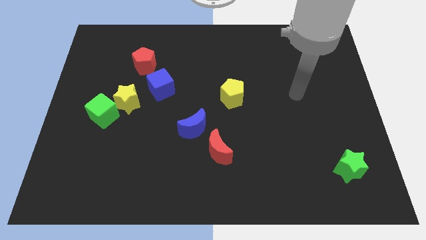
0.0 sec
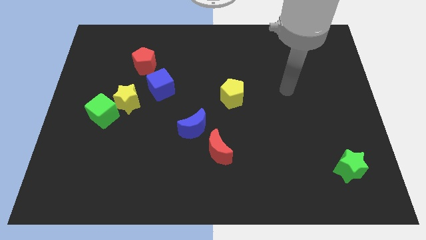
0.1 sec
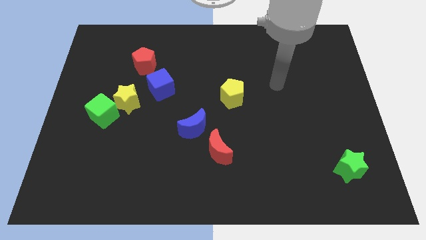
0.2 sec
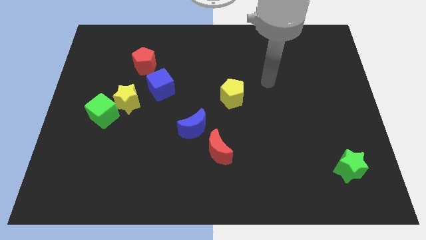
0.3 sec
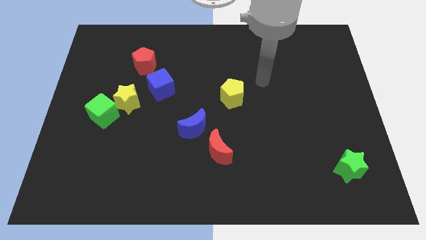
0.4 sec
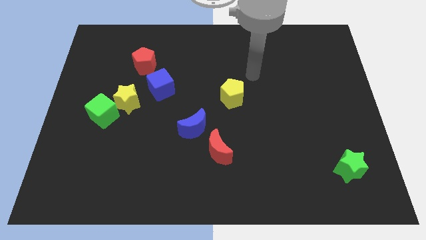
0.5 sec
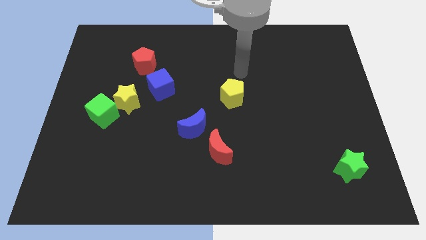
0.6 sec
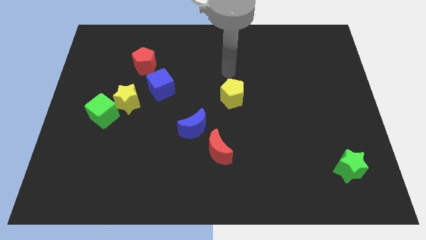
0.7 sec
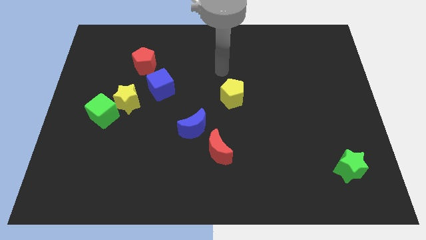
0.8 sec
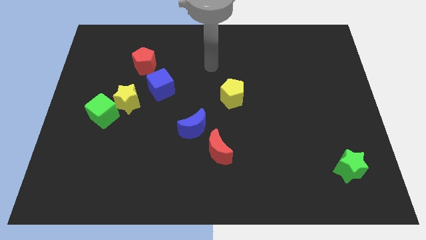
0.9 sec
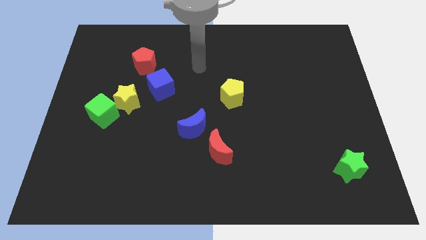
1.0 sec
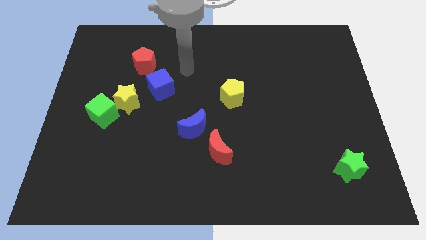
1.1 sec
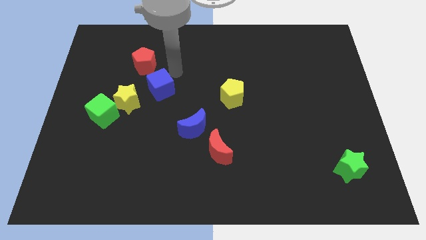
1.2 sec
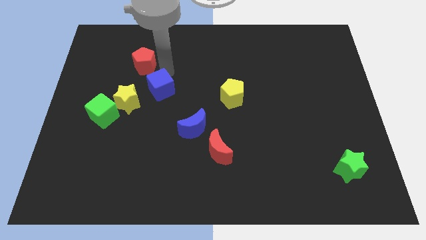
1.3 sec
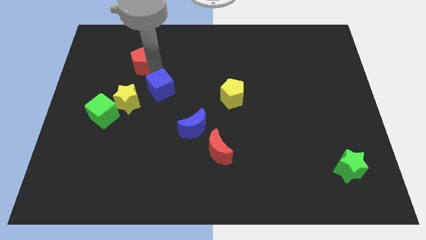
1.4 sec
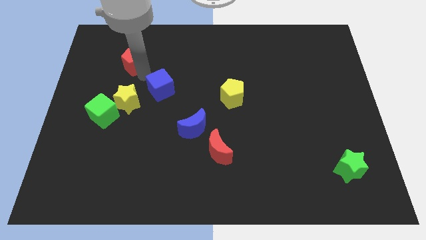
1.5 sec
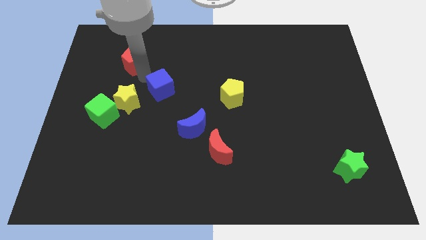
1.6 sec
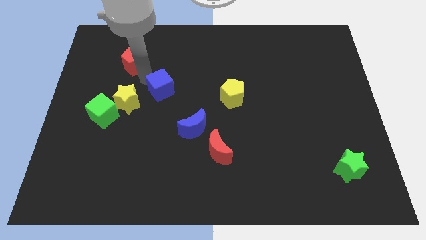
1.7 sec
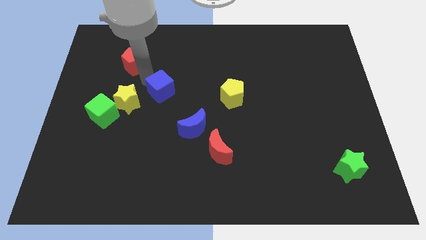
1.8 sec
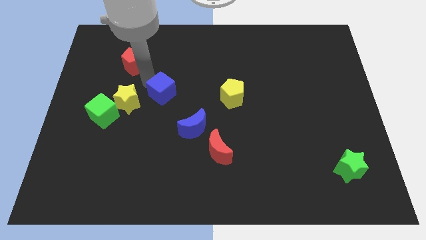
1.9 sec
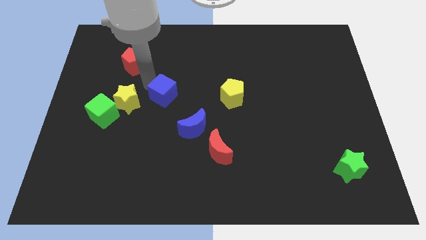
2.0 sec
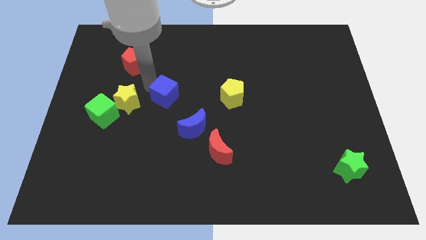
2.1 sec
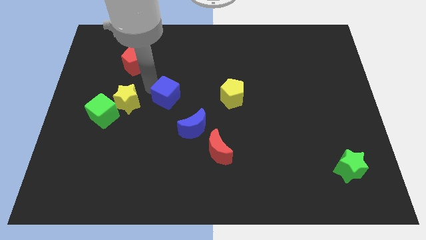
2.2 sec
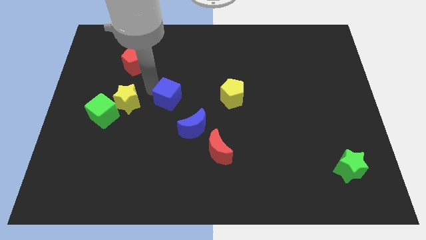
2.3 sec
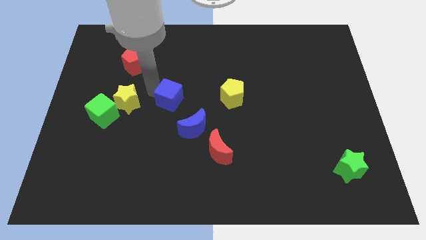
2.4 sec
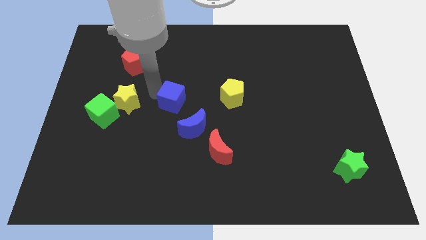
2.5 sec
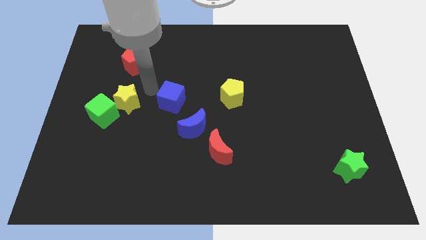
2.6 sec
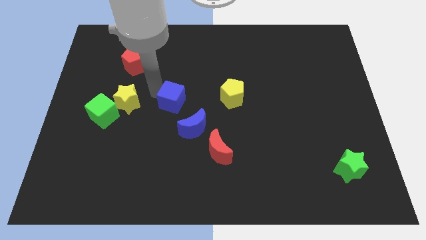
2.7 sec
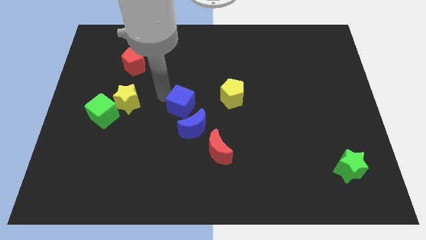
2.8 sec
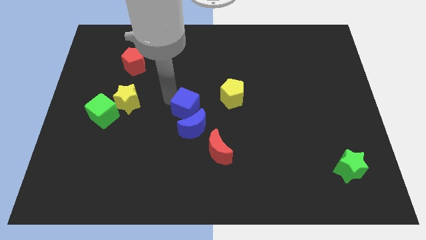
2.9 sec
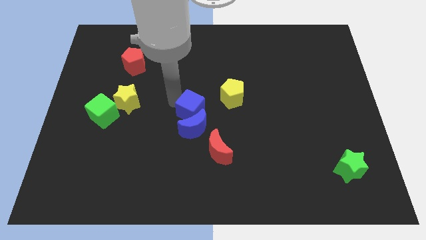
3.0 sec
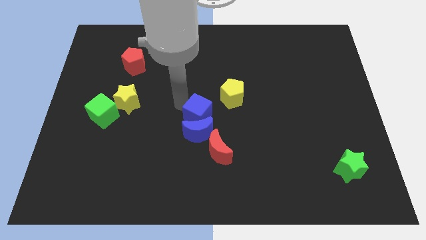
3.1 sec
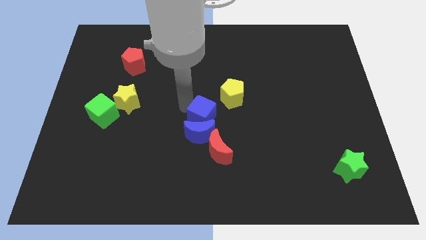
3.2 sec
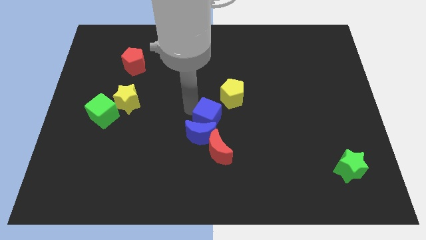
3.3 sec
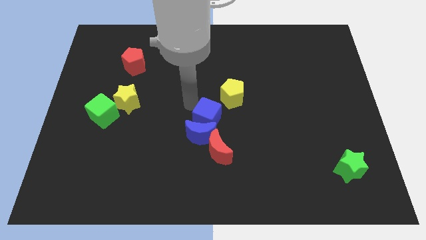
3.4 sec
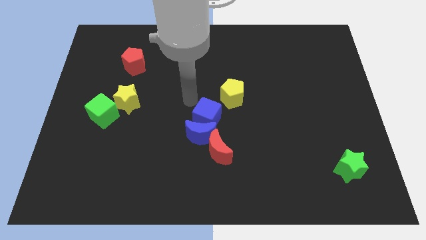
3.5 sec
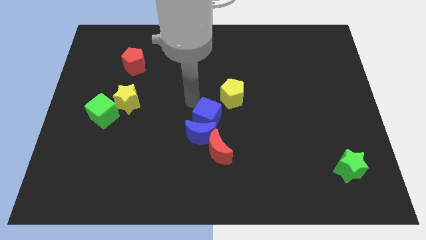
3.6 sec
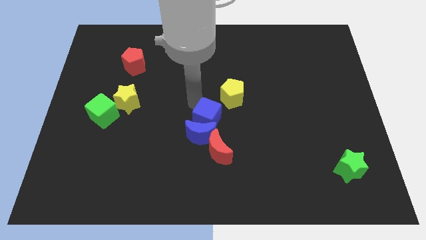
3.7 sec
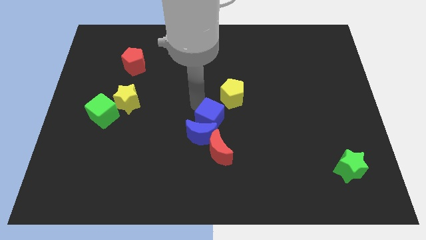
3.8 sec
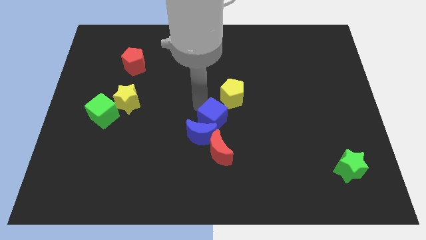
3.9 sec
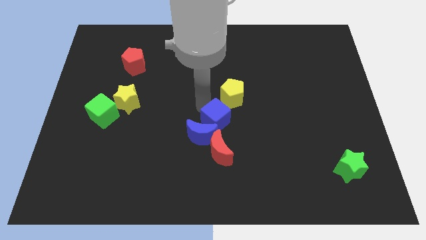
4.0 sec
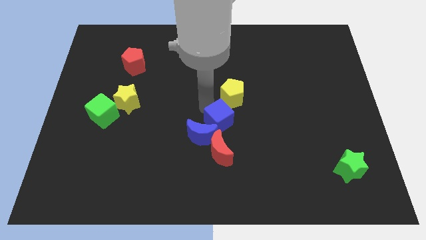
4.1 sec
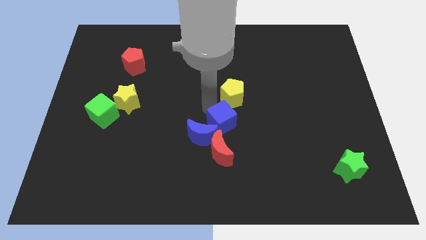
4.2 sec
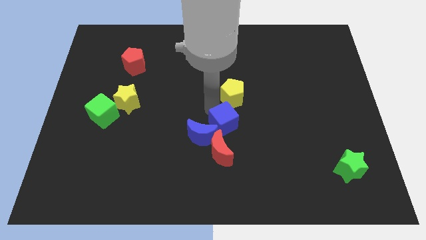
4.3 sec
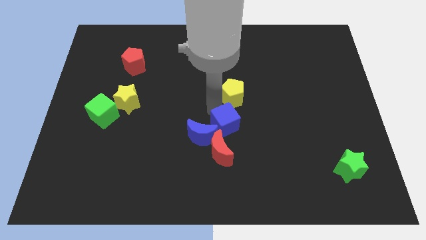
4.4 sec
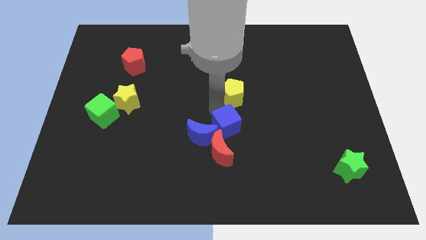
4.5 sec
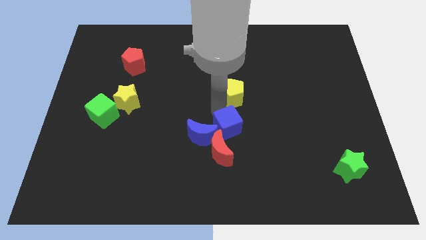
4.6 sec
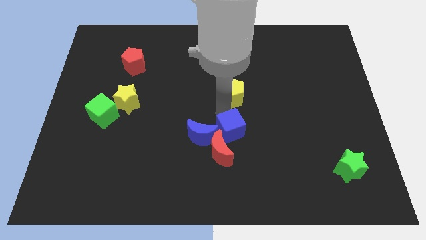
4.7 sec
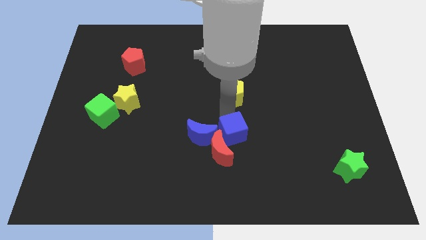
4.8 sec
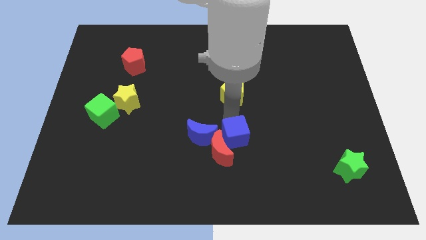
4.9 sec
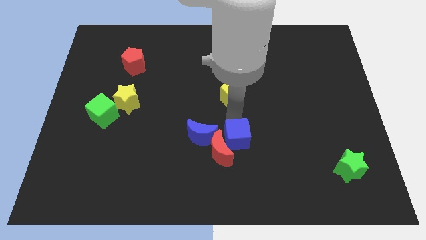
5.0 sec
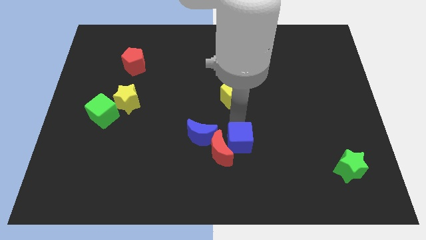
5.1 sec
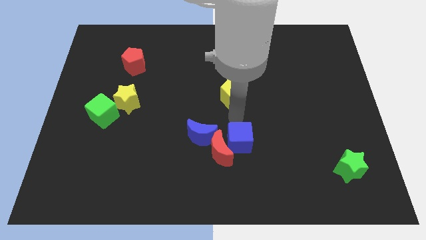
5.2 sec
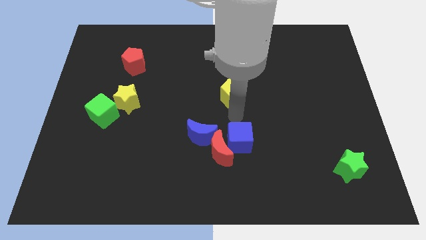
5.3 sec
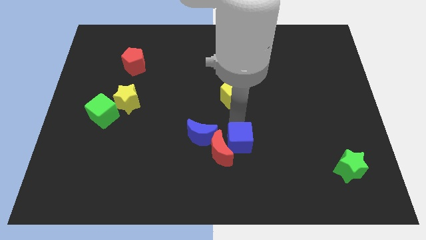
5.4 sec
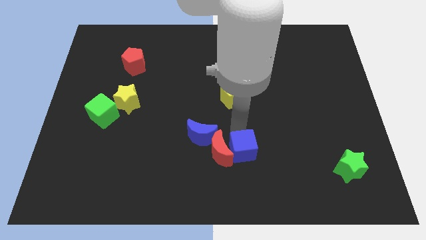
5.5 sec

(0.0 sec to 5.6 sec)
move the blue cube to the bottom right side of the red moon

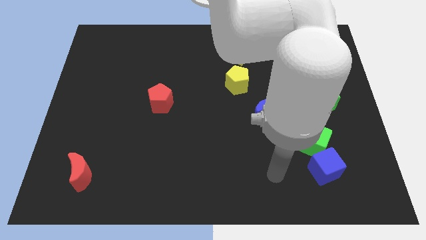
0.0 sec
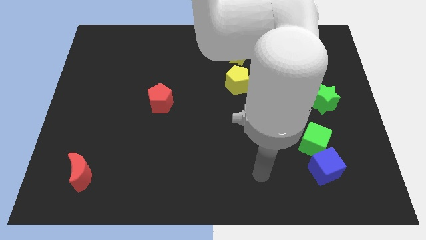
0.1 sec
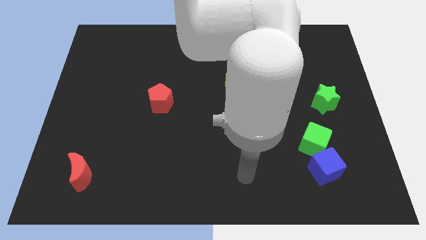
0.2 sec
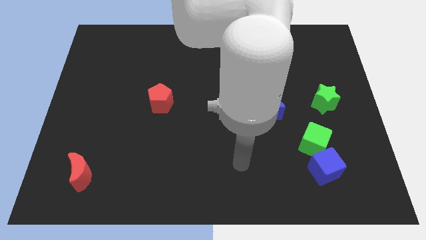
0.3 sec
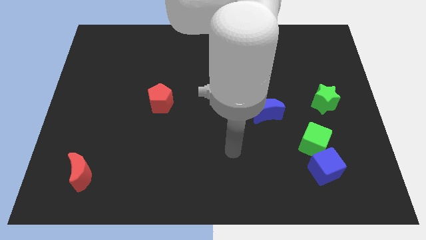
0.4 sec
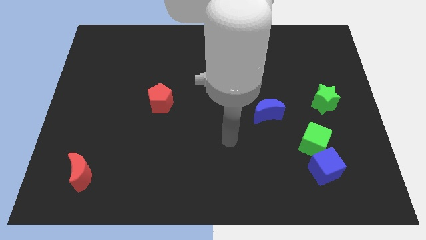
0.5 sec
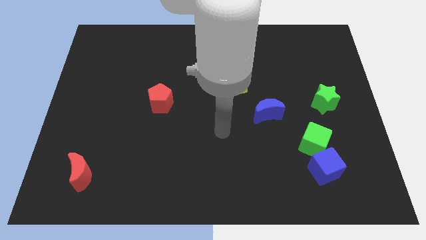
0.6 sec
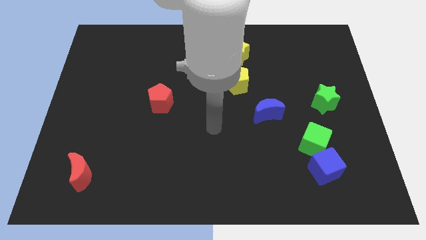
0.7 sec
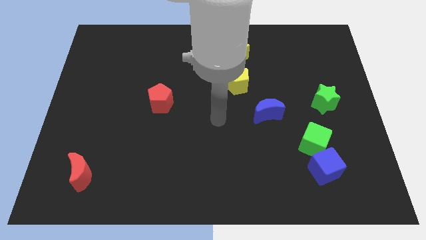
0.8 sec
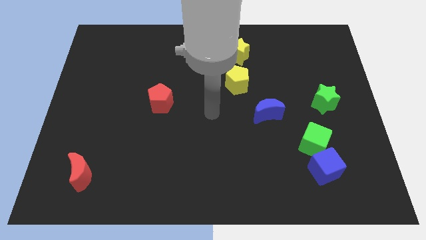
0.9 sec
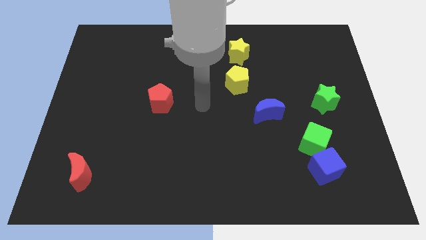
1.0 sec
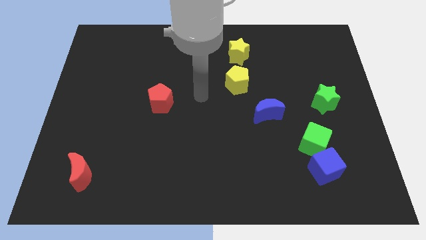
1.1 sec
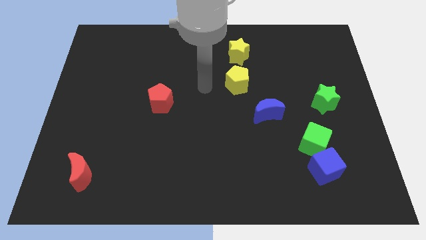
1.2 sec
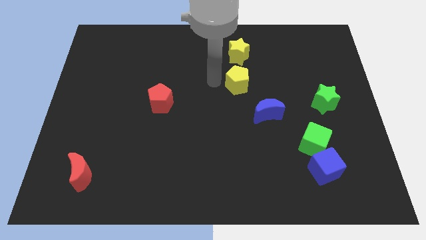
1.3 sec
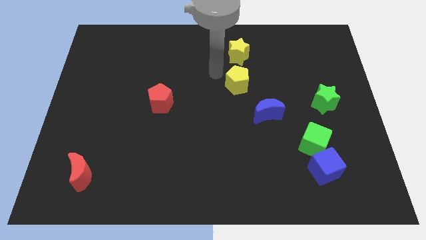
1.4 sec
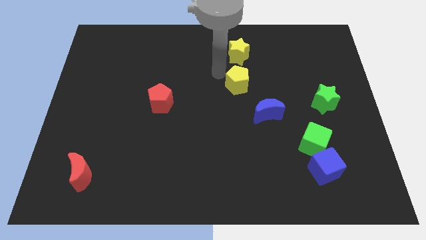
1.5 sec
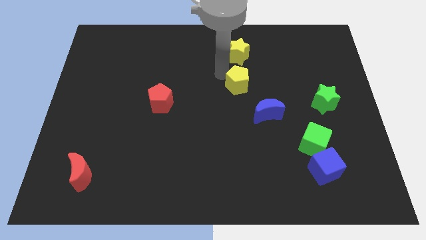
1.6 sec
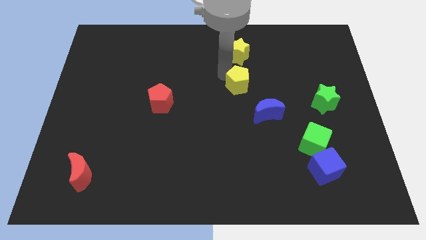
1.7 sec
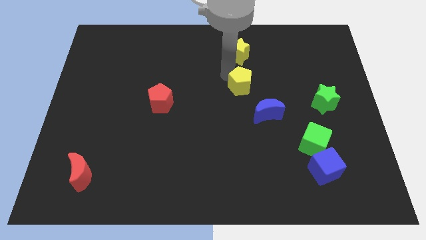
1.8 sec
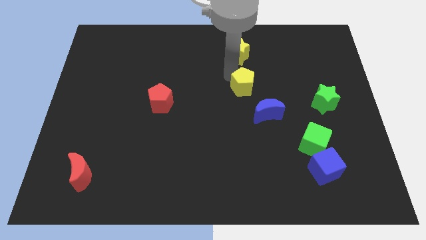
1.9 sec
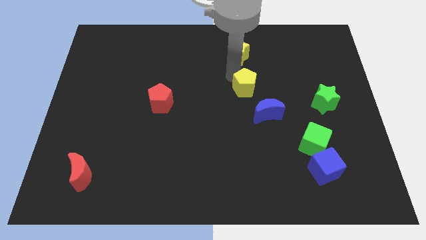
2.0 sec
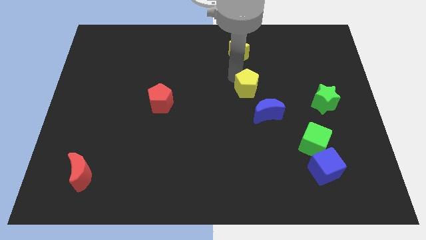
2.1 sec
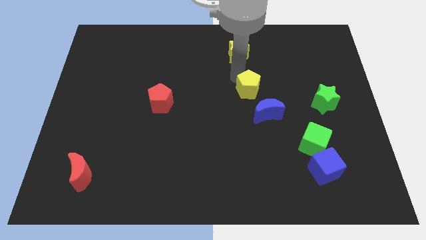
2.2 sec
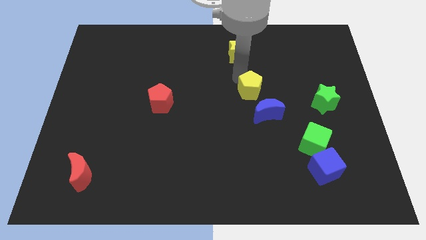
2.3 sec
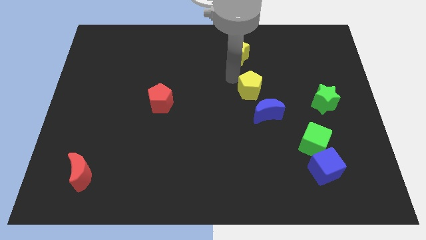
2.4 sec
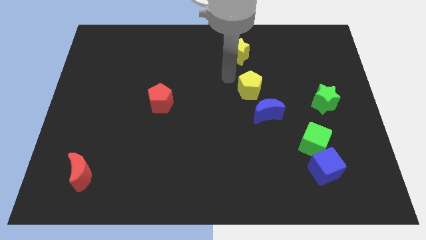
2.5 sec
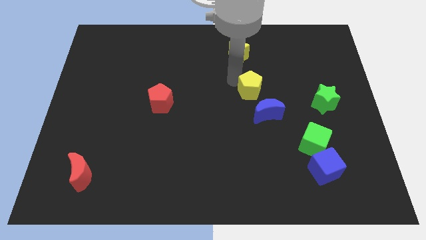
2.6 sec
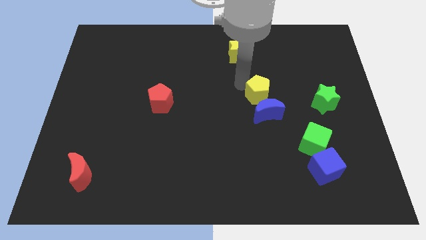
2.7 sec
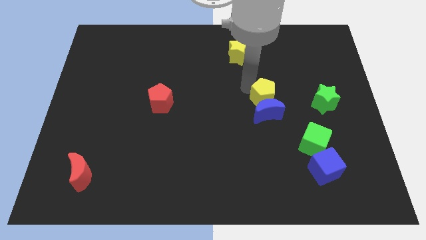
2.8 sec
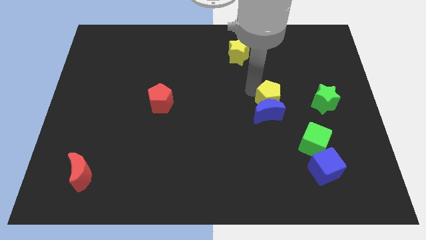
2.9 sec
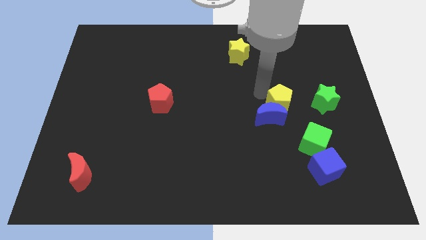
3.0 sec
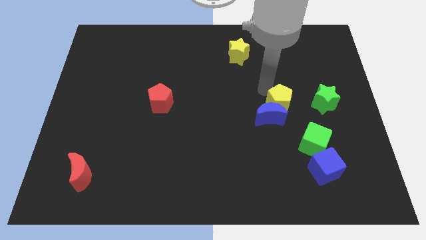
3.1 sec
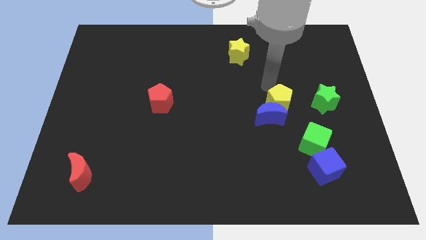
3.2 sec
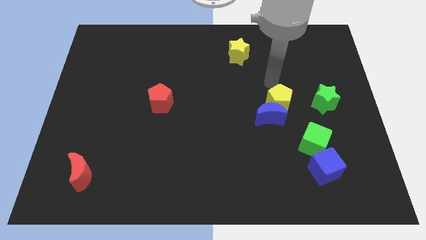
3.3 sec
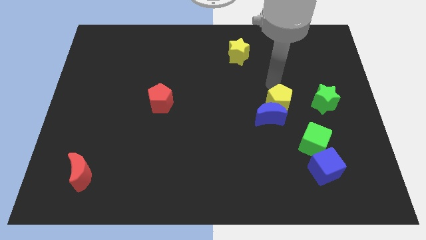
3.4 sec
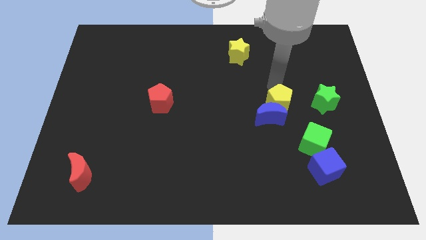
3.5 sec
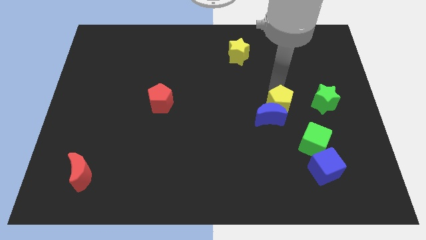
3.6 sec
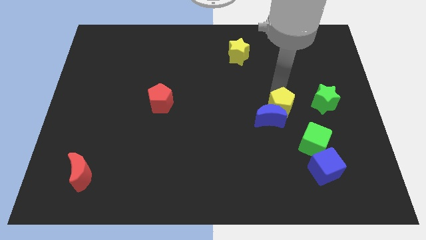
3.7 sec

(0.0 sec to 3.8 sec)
put the yellow pentagon diagonally up and to the left of the green cube
